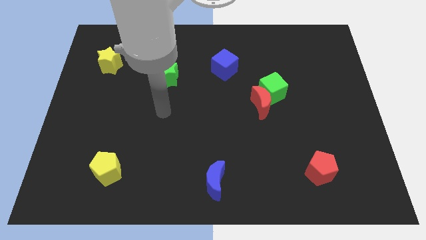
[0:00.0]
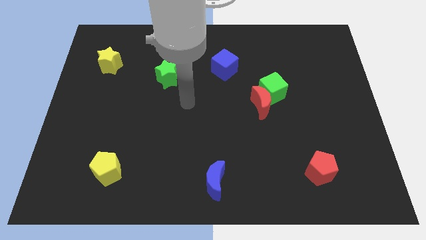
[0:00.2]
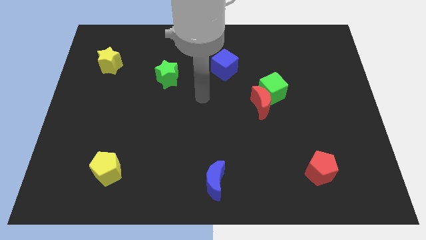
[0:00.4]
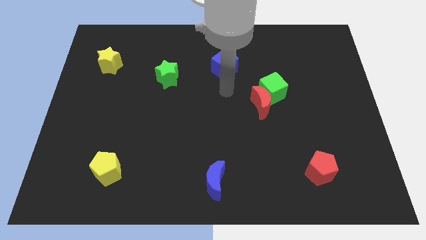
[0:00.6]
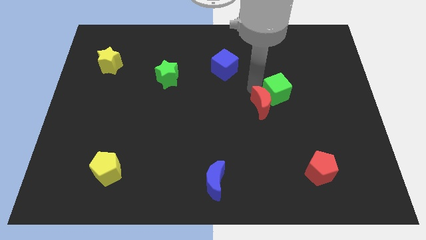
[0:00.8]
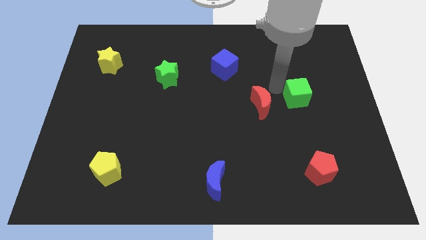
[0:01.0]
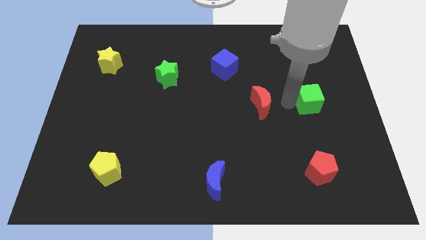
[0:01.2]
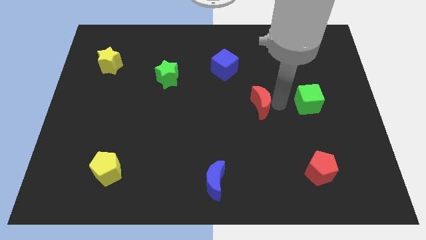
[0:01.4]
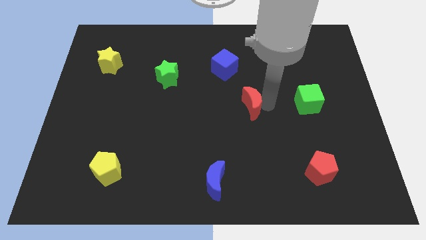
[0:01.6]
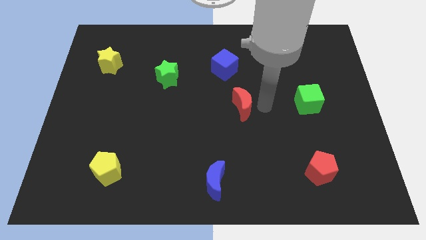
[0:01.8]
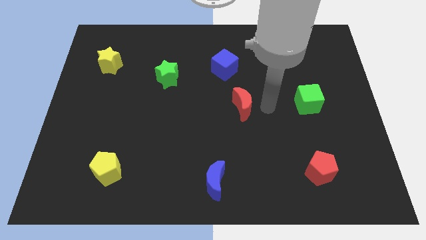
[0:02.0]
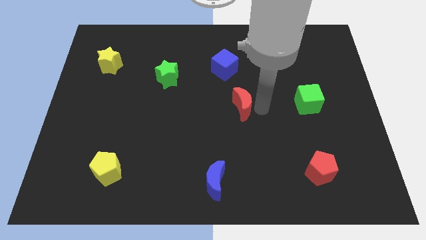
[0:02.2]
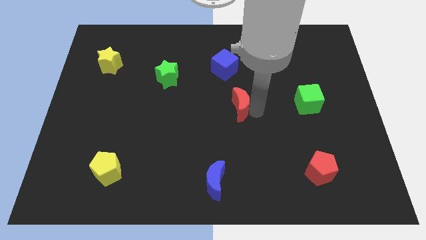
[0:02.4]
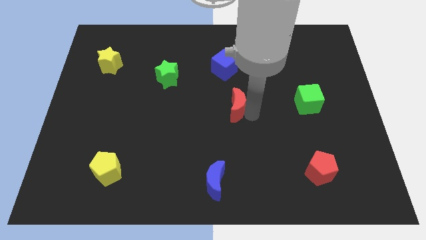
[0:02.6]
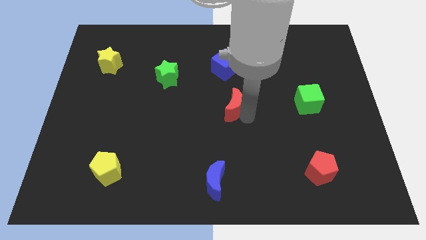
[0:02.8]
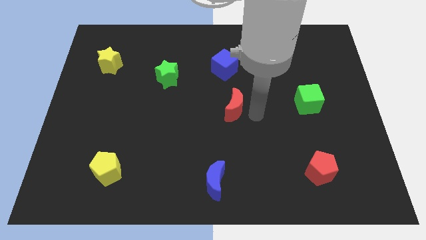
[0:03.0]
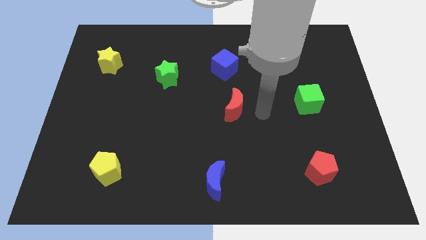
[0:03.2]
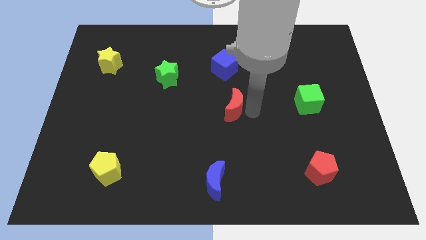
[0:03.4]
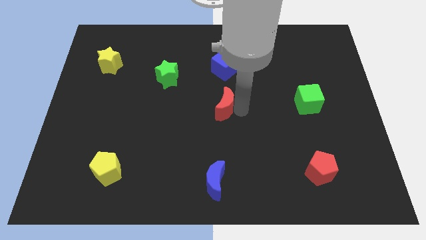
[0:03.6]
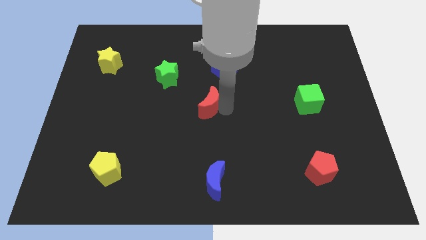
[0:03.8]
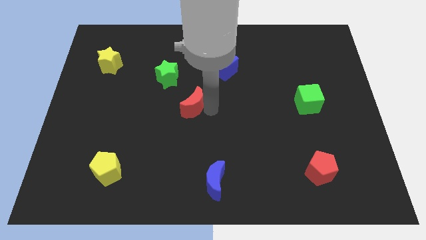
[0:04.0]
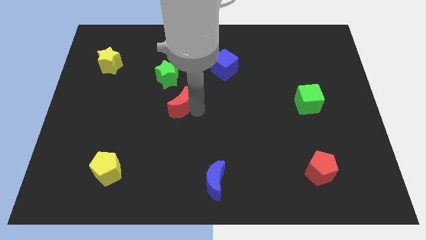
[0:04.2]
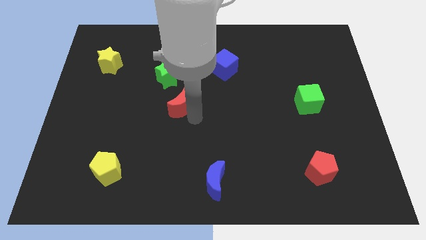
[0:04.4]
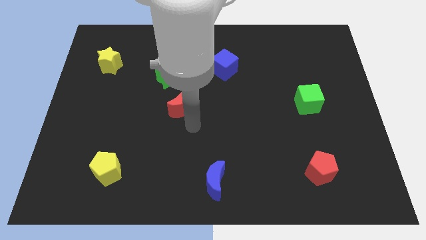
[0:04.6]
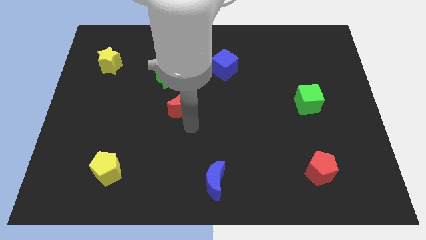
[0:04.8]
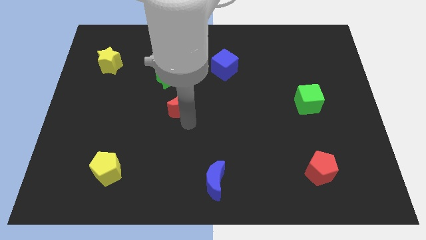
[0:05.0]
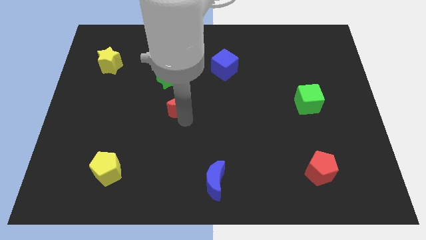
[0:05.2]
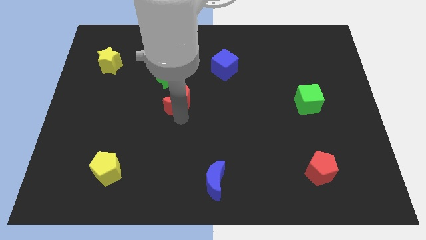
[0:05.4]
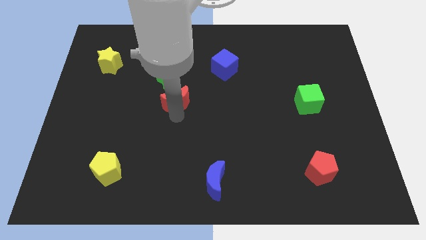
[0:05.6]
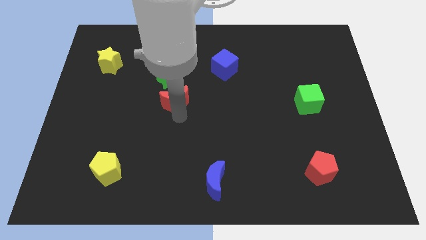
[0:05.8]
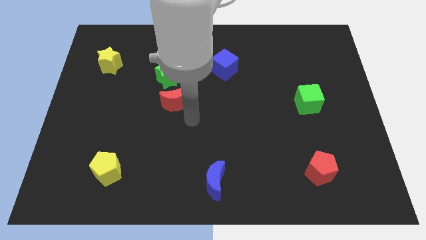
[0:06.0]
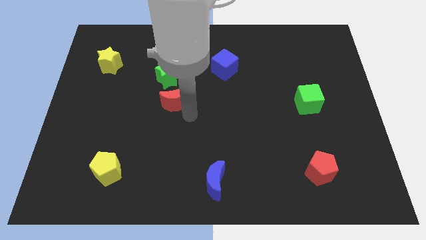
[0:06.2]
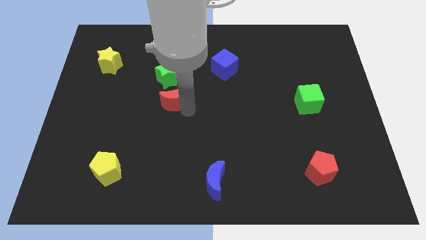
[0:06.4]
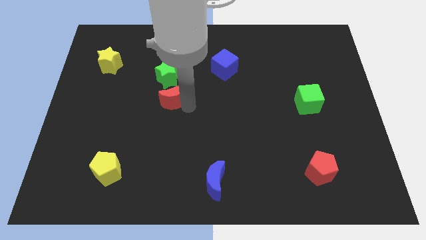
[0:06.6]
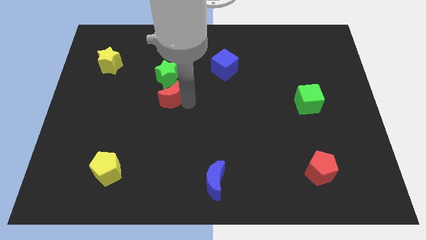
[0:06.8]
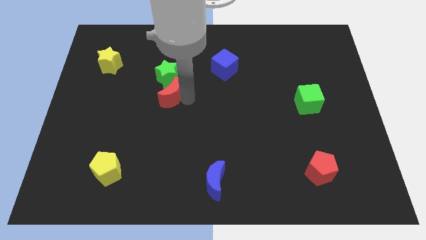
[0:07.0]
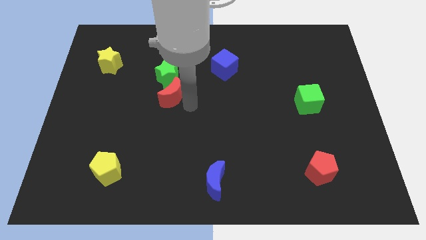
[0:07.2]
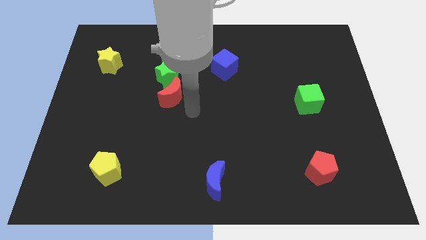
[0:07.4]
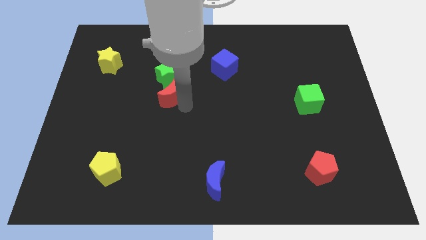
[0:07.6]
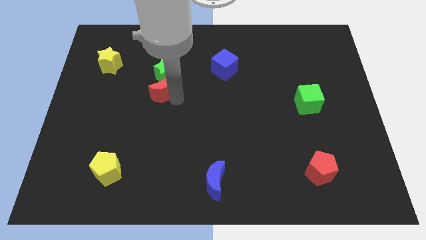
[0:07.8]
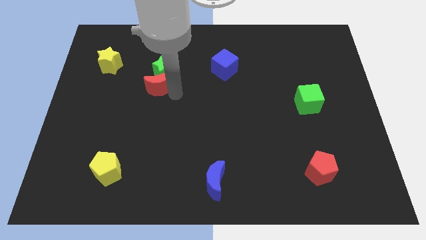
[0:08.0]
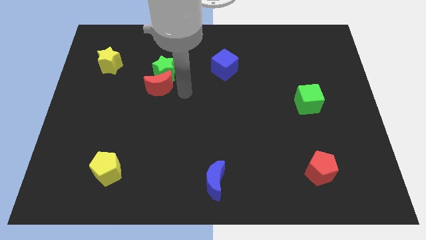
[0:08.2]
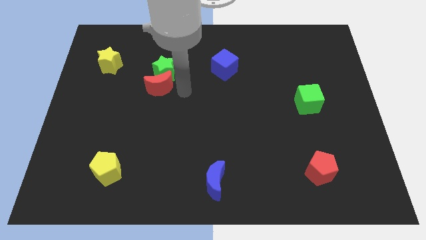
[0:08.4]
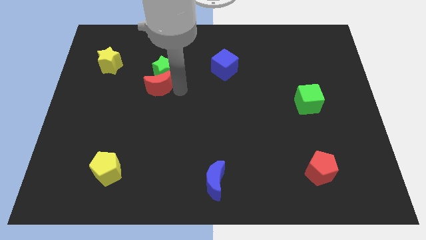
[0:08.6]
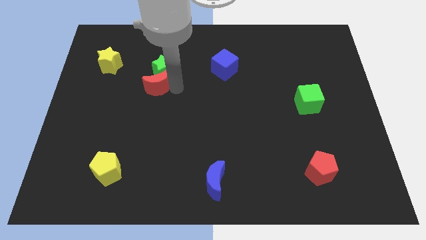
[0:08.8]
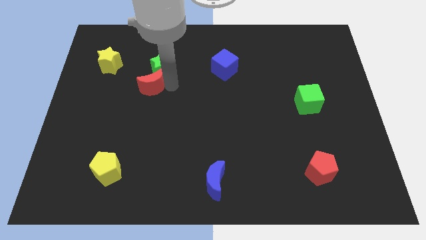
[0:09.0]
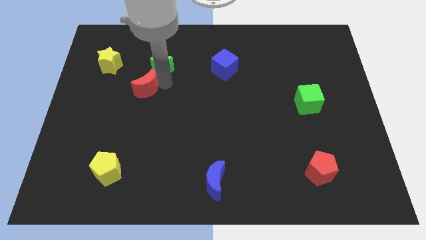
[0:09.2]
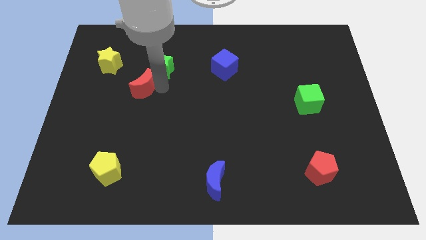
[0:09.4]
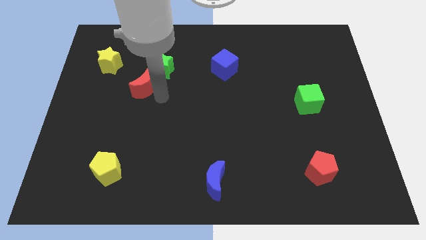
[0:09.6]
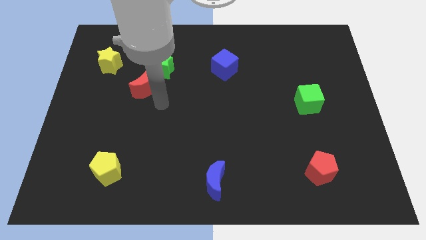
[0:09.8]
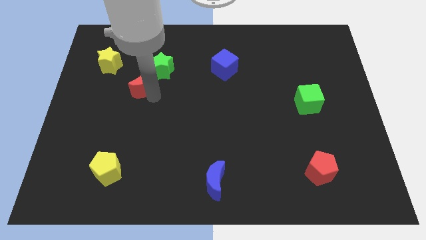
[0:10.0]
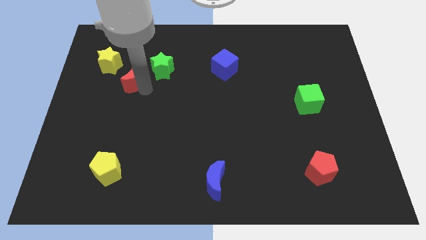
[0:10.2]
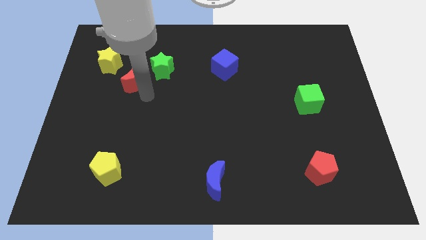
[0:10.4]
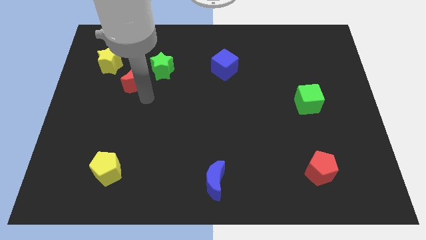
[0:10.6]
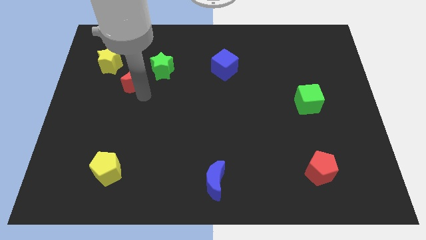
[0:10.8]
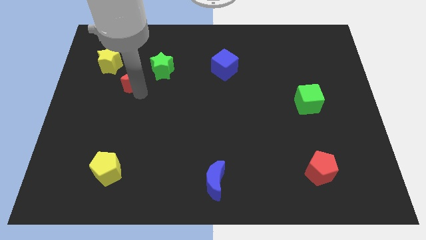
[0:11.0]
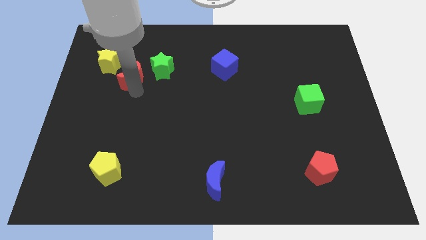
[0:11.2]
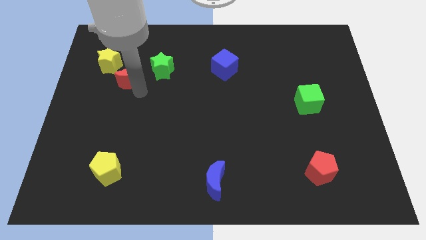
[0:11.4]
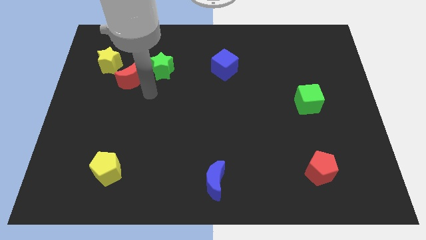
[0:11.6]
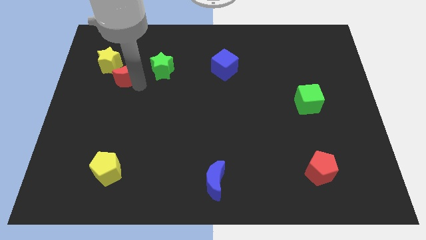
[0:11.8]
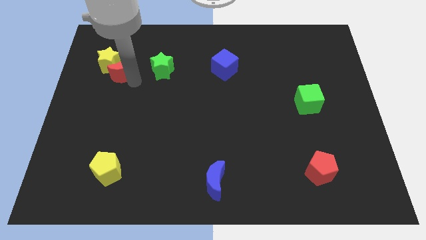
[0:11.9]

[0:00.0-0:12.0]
slide the red moon next to the yellow star

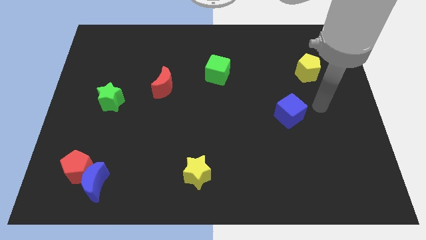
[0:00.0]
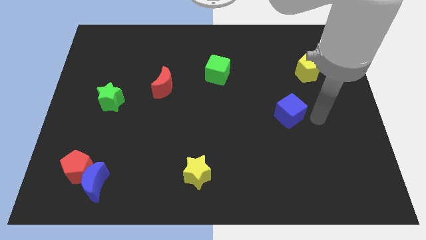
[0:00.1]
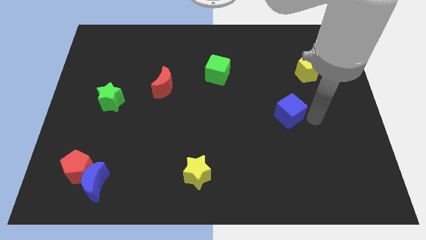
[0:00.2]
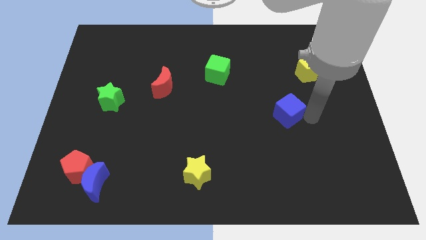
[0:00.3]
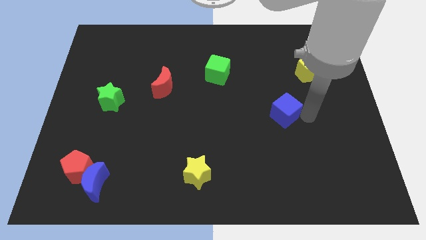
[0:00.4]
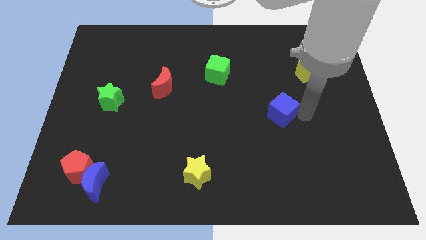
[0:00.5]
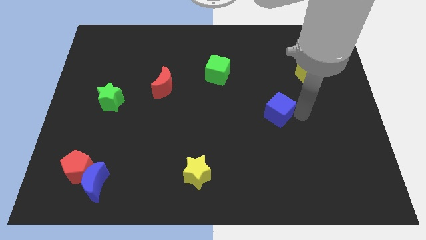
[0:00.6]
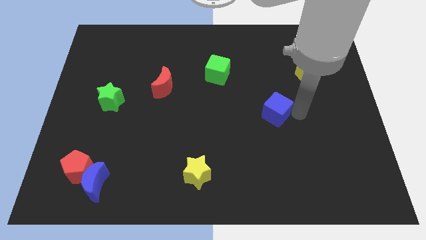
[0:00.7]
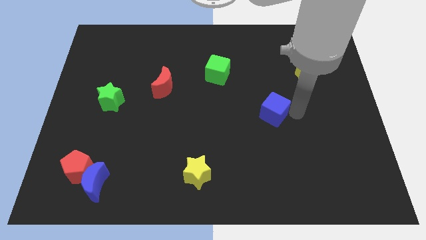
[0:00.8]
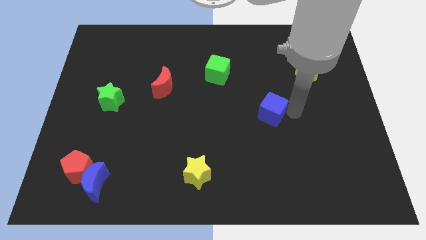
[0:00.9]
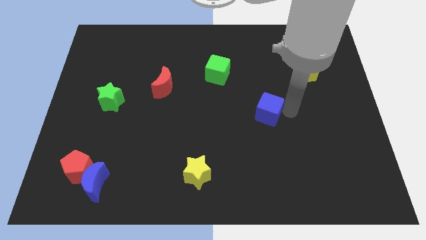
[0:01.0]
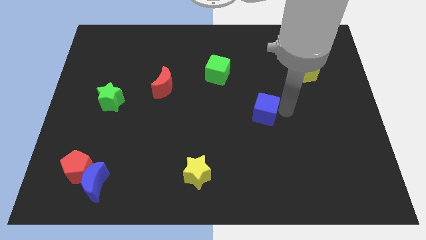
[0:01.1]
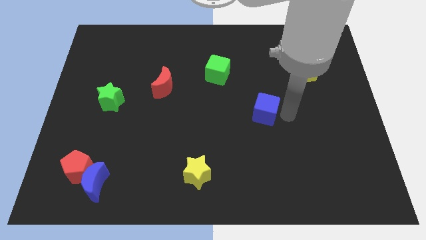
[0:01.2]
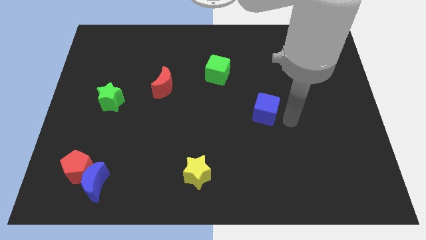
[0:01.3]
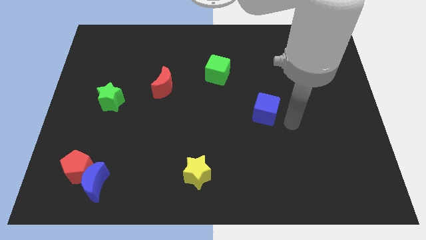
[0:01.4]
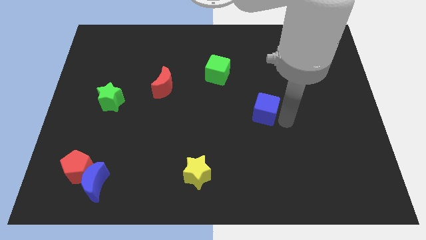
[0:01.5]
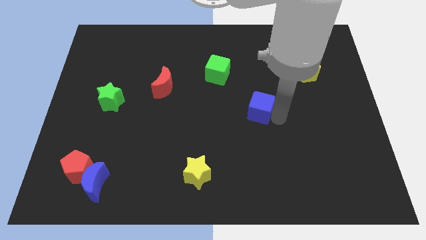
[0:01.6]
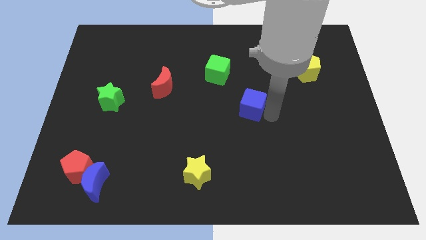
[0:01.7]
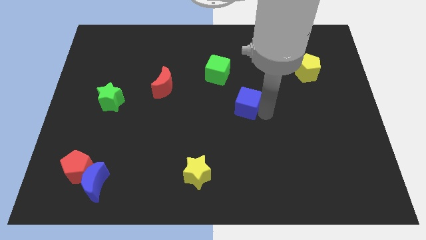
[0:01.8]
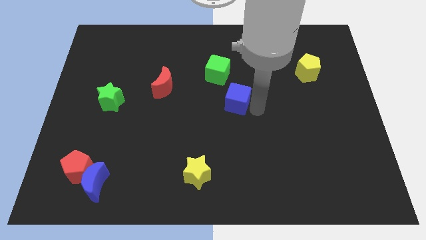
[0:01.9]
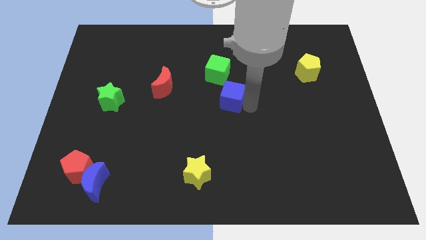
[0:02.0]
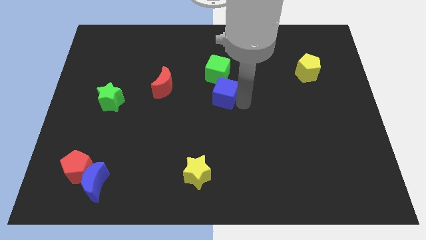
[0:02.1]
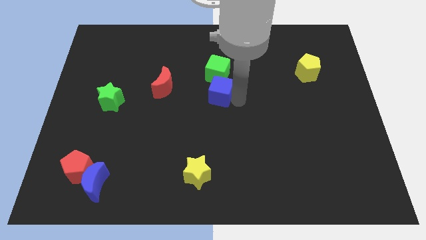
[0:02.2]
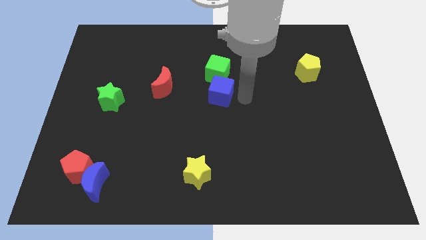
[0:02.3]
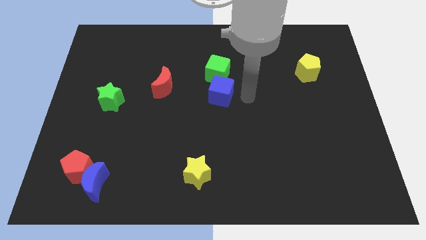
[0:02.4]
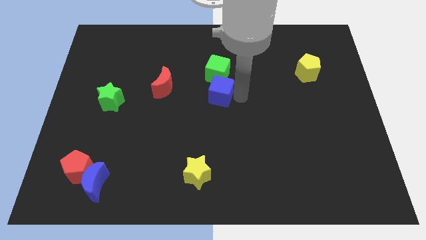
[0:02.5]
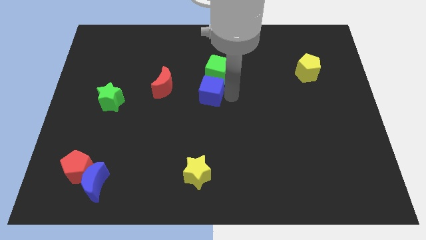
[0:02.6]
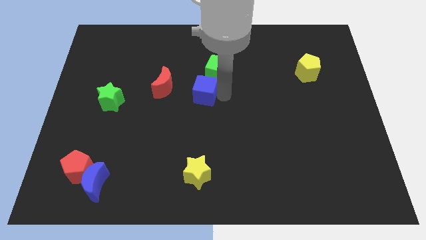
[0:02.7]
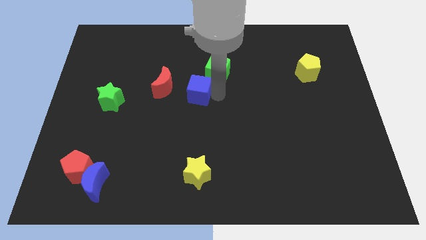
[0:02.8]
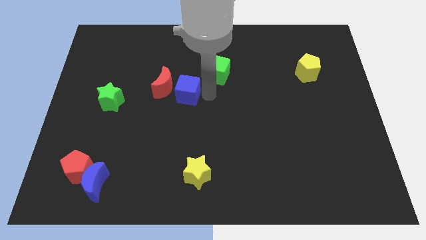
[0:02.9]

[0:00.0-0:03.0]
move the blue cube close to the red moon
